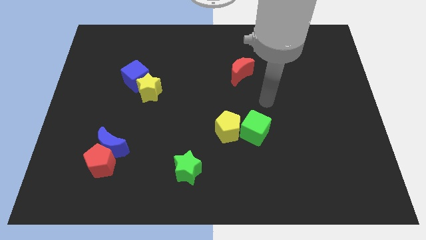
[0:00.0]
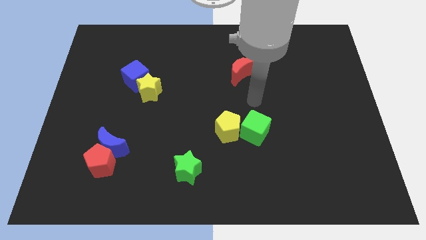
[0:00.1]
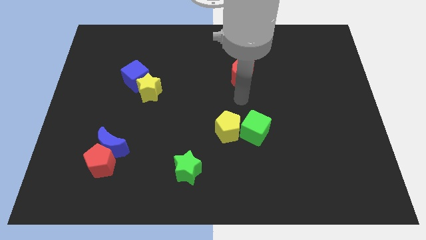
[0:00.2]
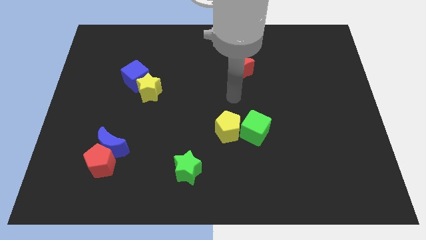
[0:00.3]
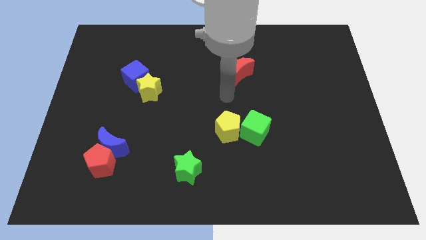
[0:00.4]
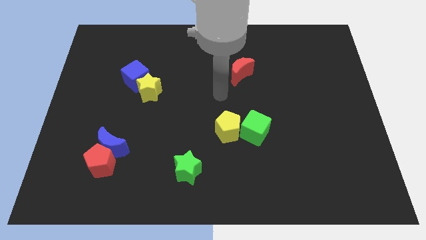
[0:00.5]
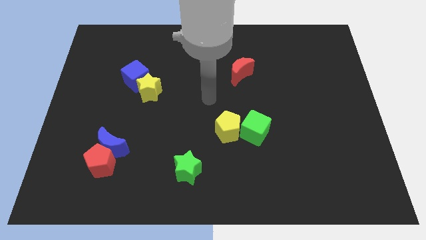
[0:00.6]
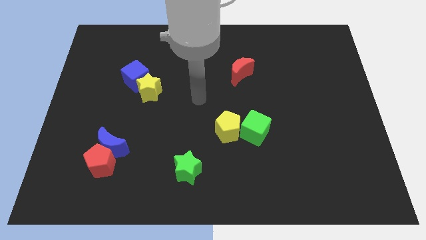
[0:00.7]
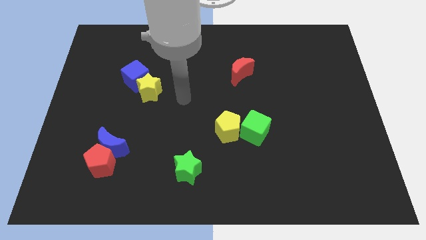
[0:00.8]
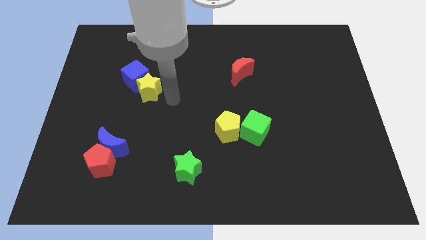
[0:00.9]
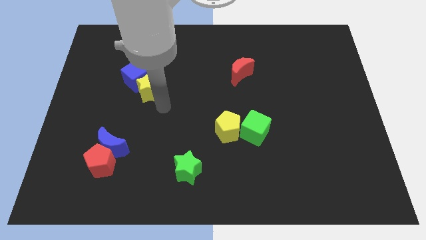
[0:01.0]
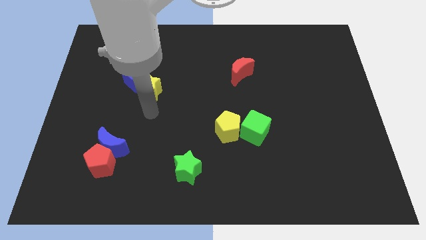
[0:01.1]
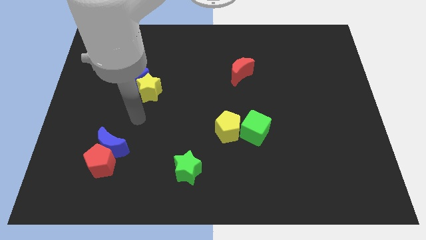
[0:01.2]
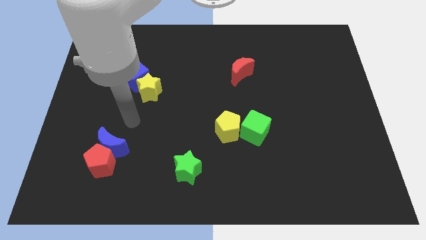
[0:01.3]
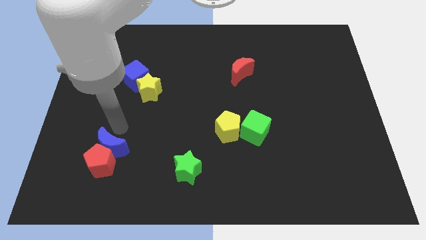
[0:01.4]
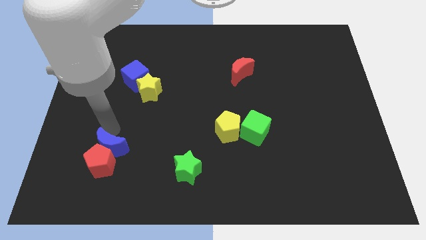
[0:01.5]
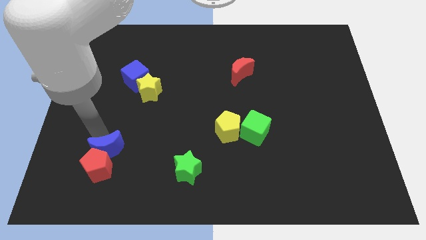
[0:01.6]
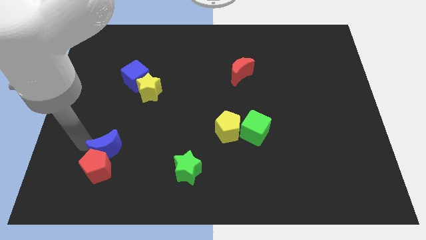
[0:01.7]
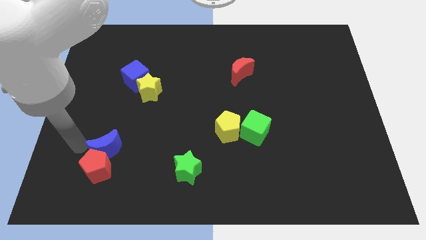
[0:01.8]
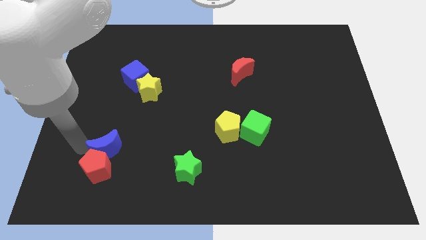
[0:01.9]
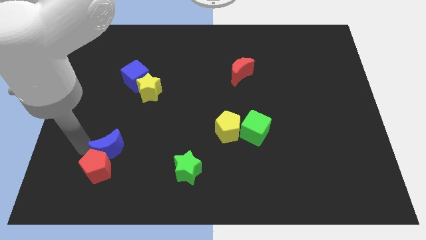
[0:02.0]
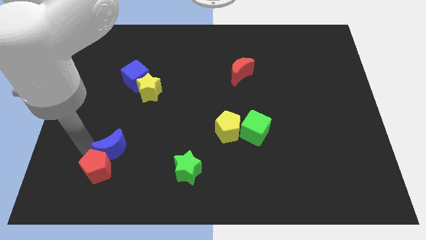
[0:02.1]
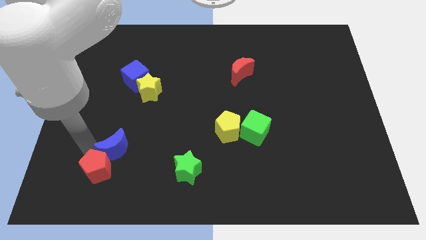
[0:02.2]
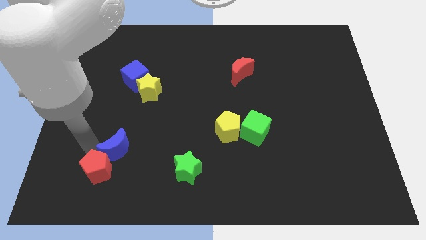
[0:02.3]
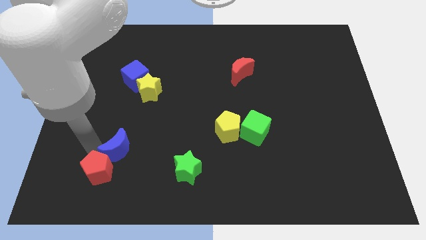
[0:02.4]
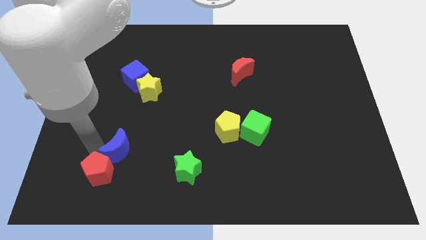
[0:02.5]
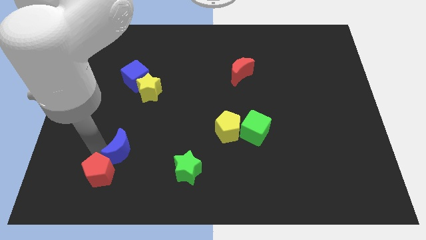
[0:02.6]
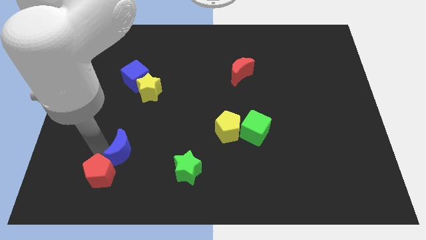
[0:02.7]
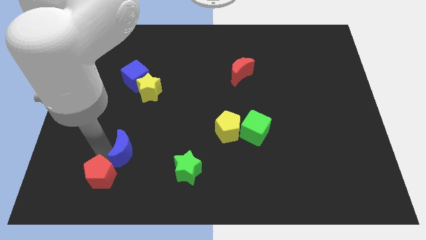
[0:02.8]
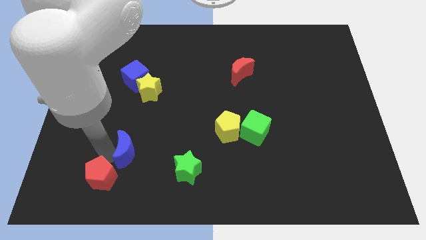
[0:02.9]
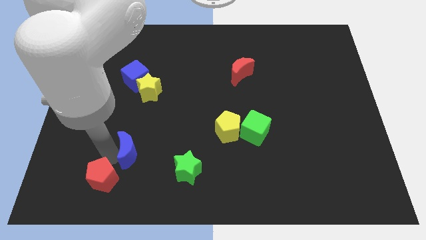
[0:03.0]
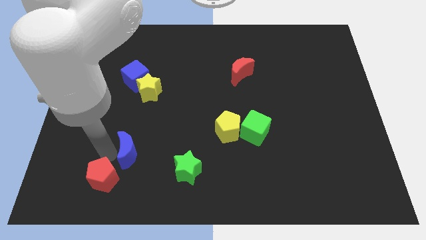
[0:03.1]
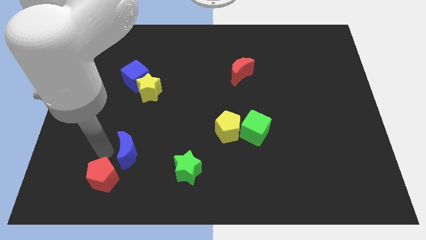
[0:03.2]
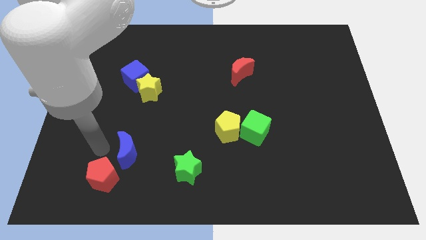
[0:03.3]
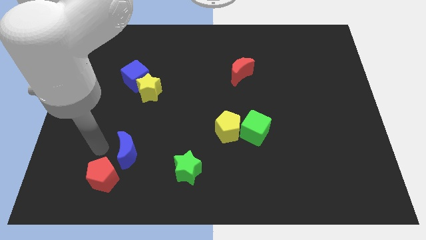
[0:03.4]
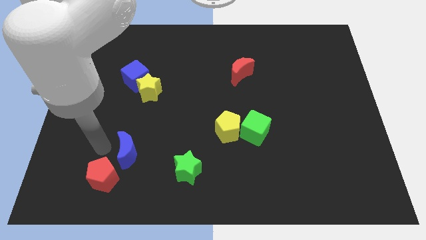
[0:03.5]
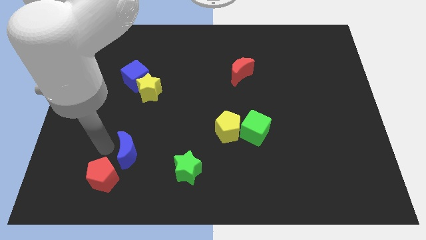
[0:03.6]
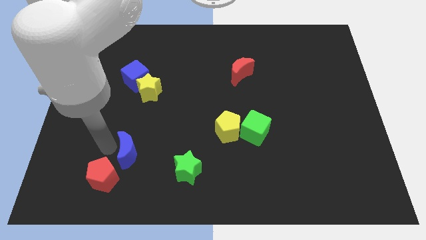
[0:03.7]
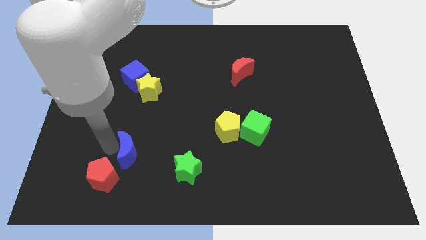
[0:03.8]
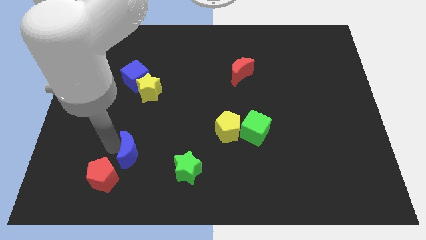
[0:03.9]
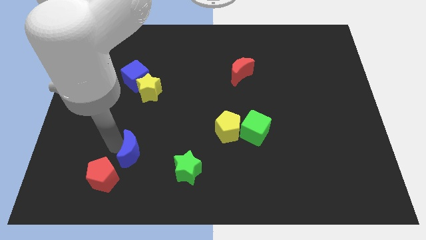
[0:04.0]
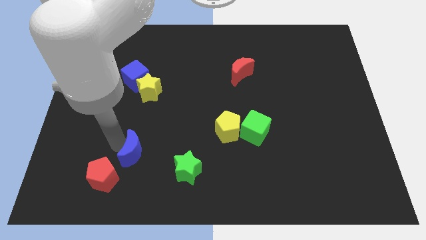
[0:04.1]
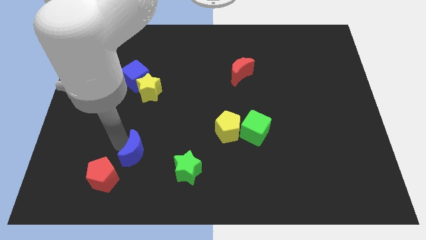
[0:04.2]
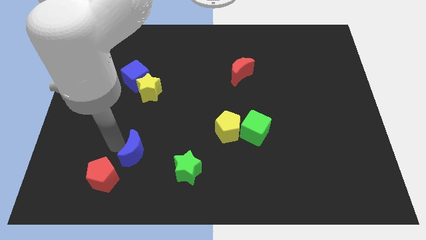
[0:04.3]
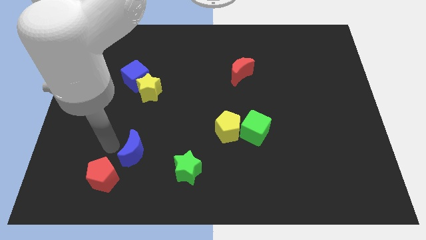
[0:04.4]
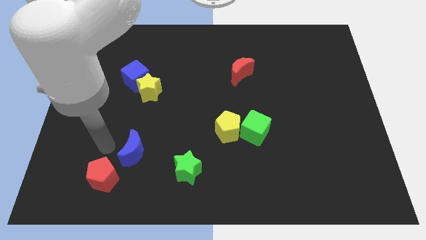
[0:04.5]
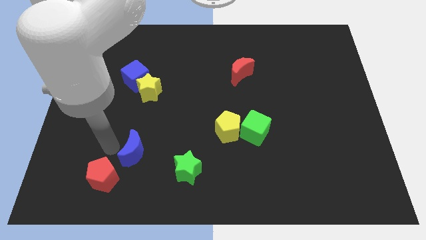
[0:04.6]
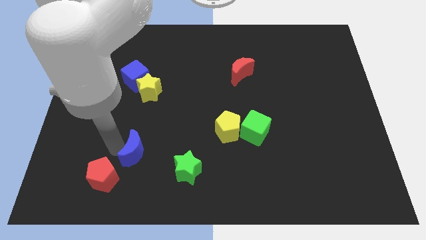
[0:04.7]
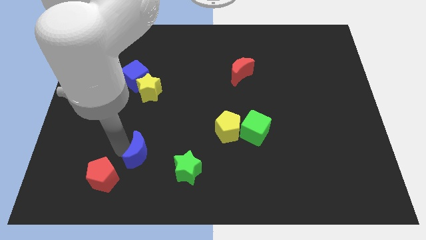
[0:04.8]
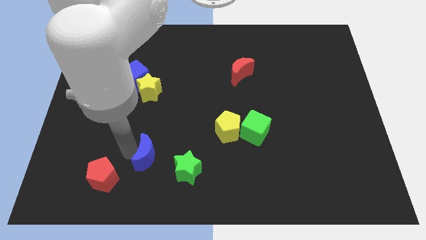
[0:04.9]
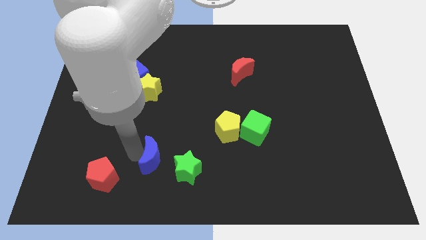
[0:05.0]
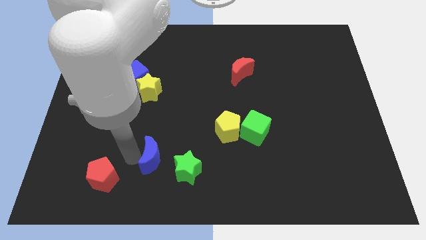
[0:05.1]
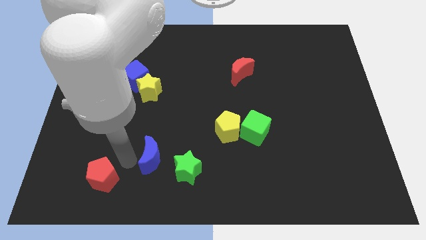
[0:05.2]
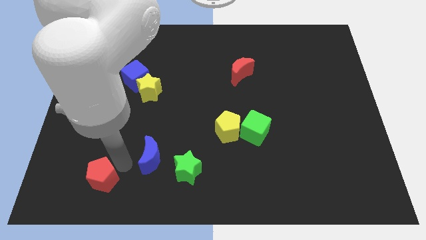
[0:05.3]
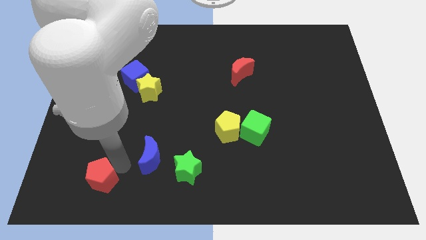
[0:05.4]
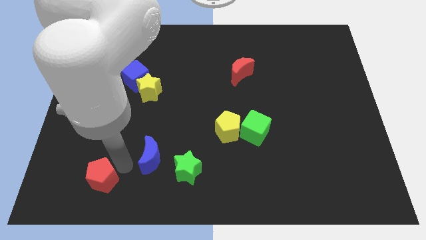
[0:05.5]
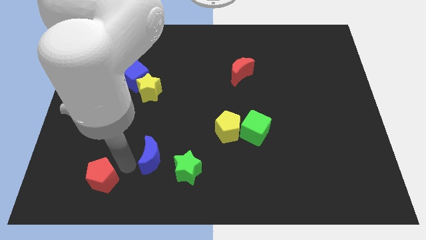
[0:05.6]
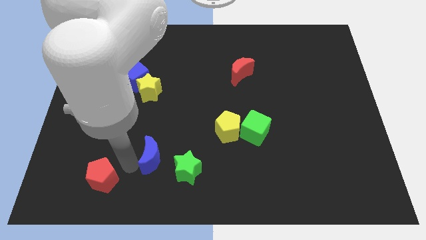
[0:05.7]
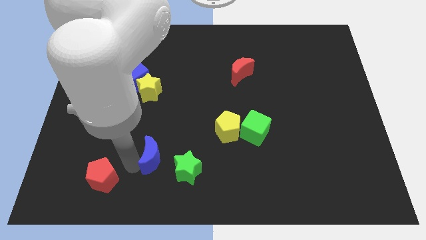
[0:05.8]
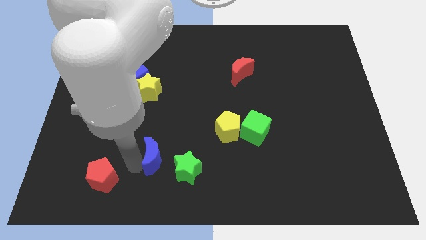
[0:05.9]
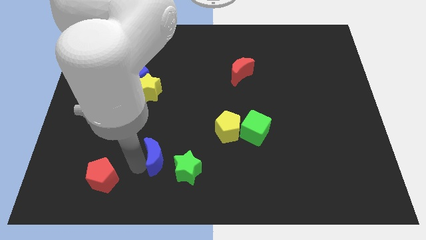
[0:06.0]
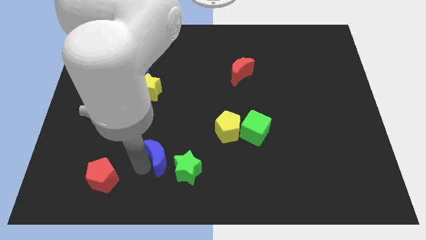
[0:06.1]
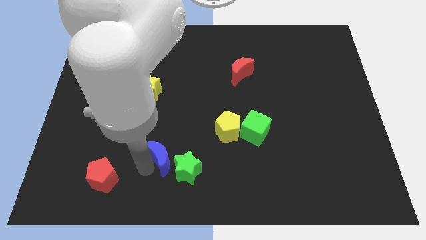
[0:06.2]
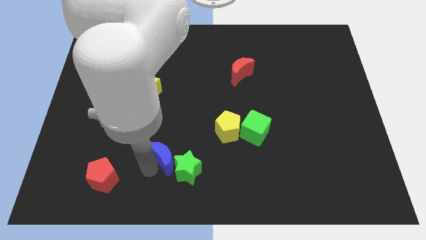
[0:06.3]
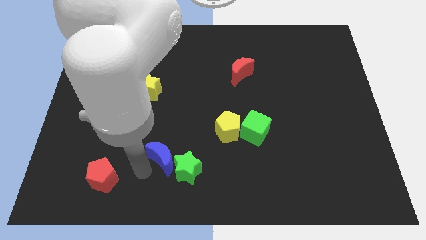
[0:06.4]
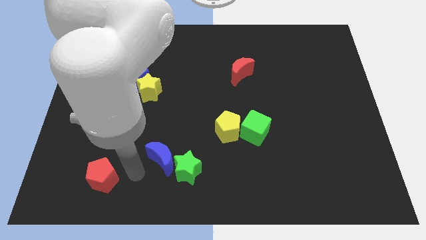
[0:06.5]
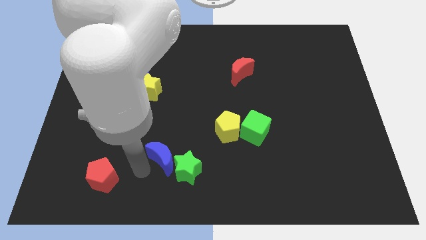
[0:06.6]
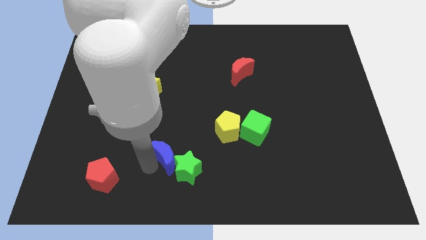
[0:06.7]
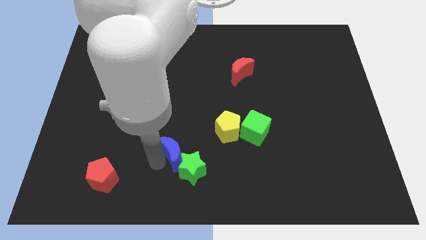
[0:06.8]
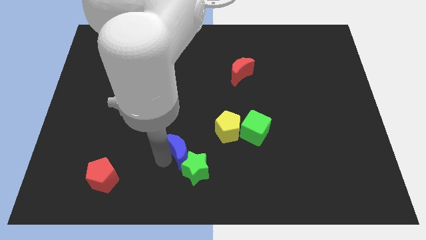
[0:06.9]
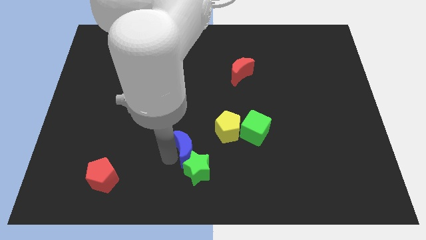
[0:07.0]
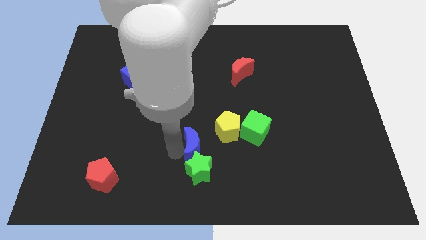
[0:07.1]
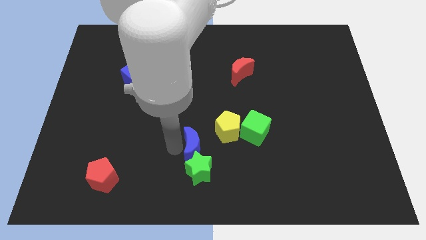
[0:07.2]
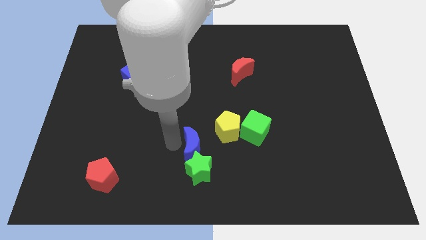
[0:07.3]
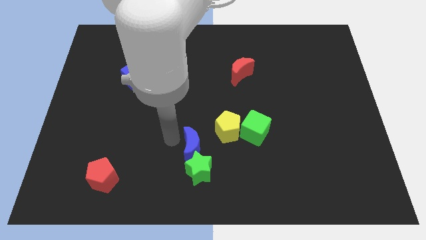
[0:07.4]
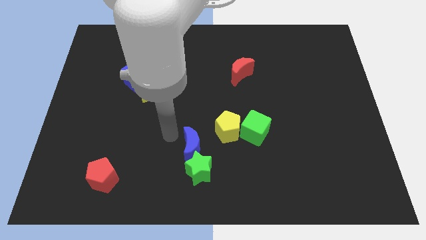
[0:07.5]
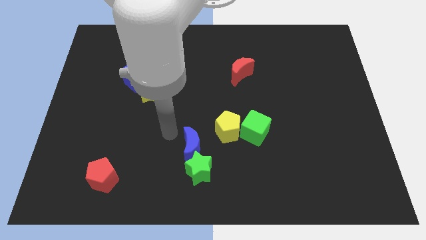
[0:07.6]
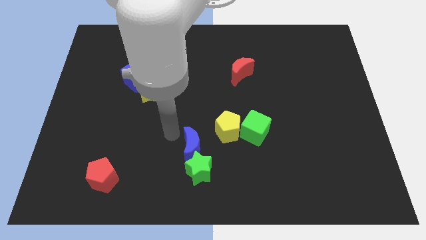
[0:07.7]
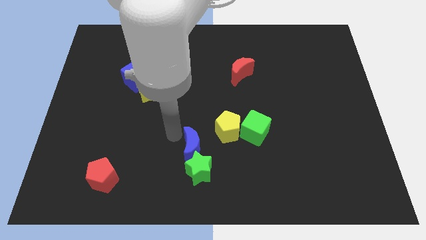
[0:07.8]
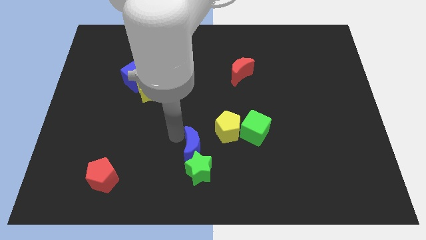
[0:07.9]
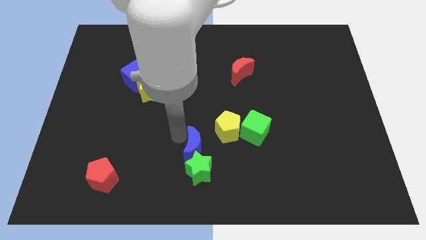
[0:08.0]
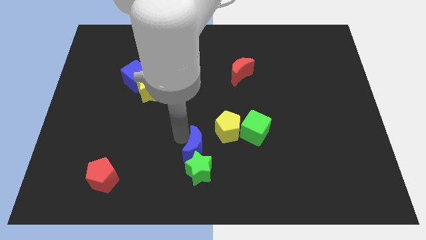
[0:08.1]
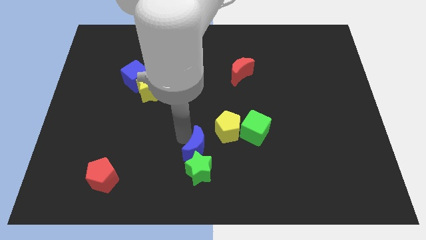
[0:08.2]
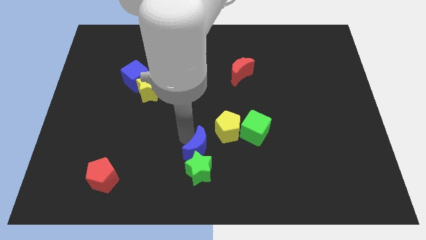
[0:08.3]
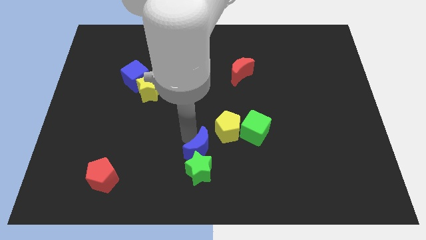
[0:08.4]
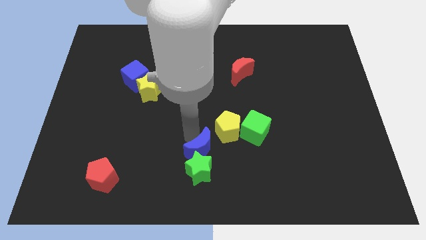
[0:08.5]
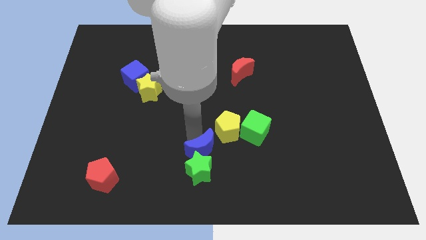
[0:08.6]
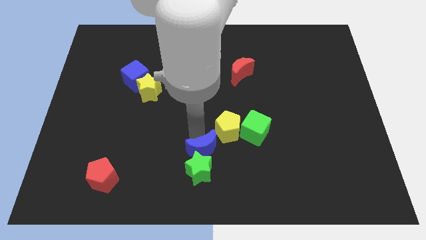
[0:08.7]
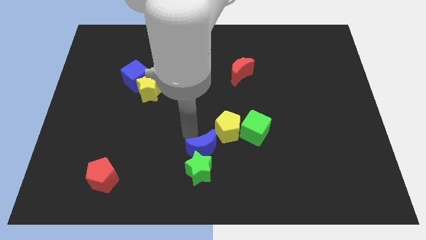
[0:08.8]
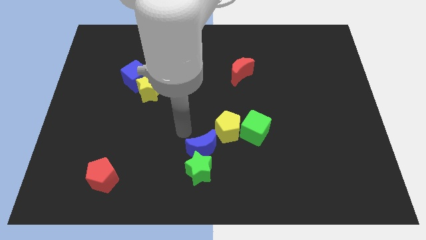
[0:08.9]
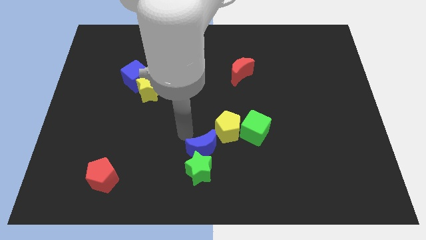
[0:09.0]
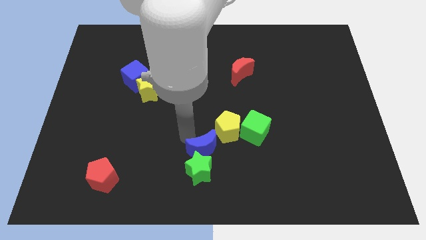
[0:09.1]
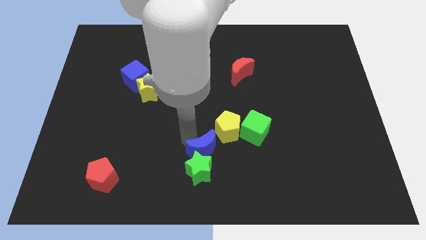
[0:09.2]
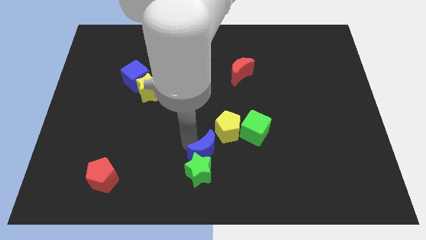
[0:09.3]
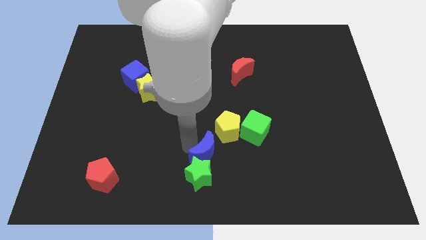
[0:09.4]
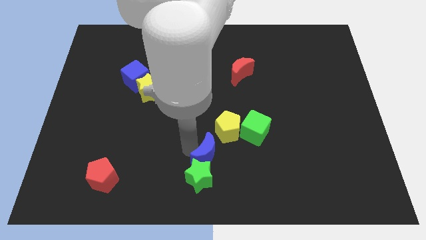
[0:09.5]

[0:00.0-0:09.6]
move the blue moon to the bottom of the yellow pentagon
